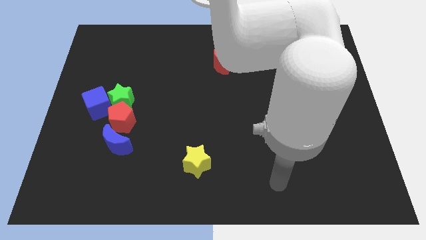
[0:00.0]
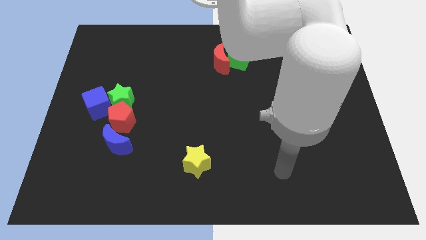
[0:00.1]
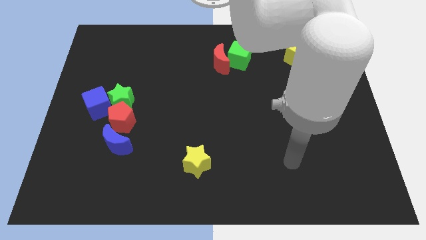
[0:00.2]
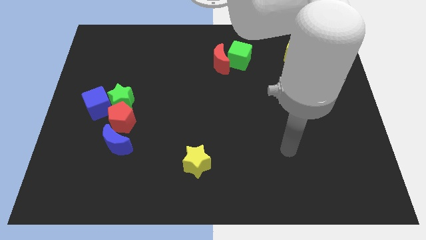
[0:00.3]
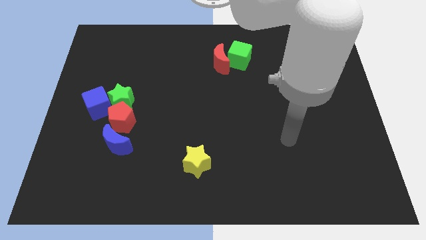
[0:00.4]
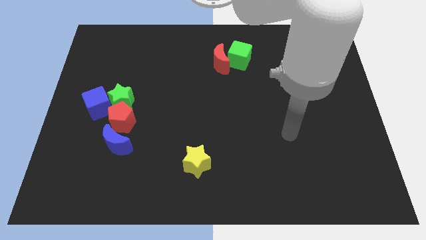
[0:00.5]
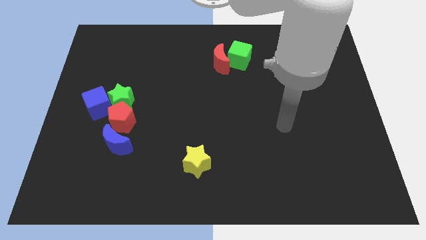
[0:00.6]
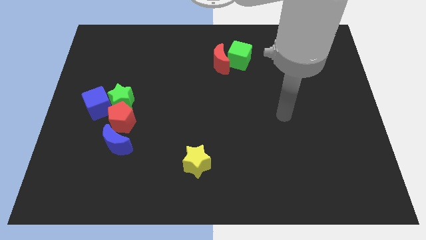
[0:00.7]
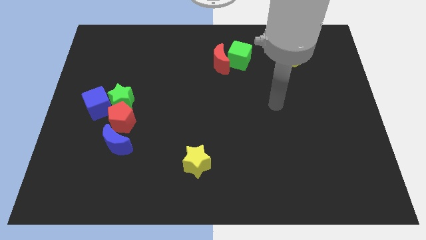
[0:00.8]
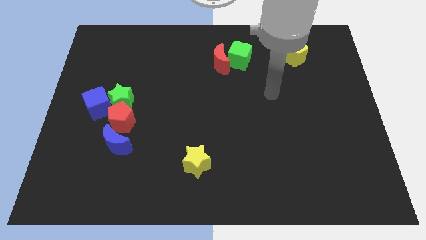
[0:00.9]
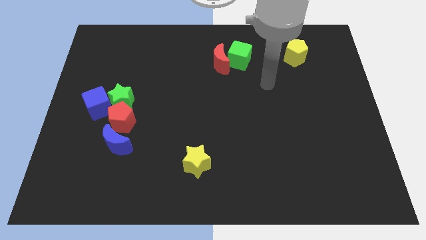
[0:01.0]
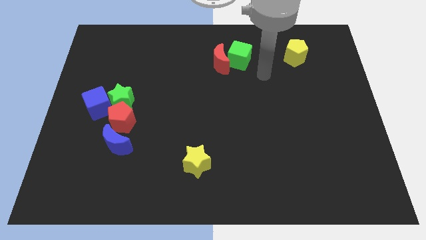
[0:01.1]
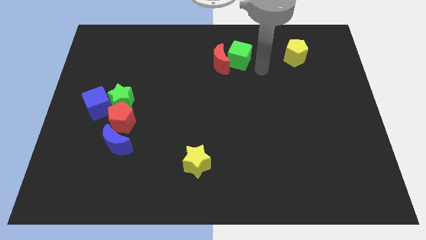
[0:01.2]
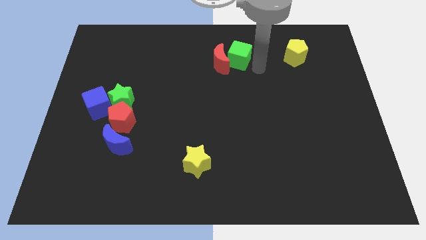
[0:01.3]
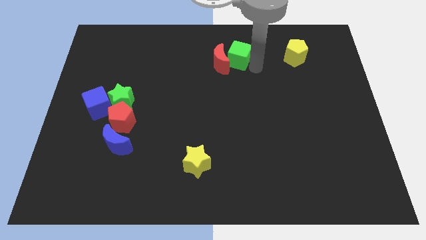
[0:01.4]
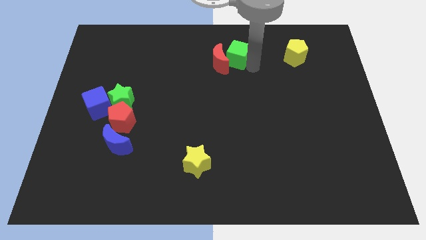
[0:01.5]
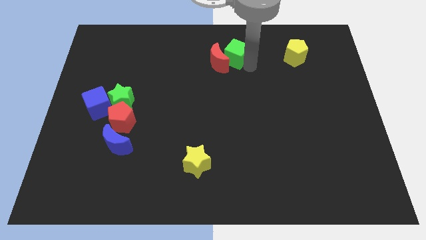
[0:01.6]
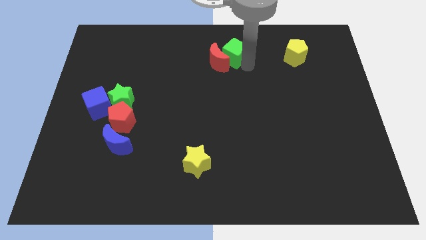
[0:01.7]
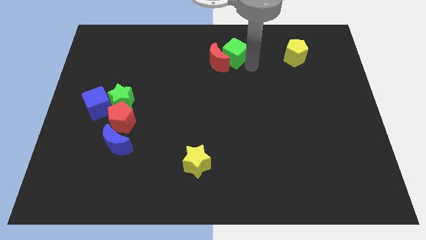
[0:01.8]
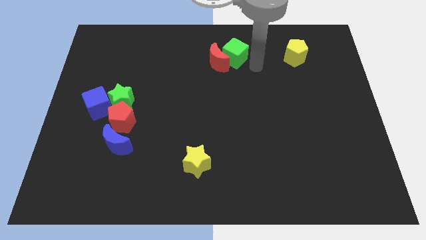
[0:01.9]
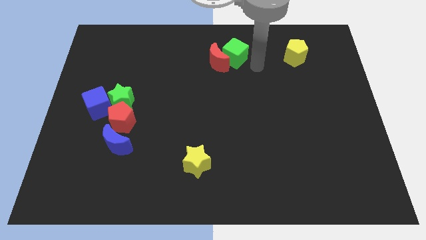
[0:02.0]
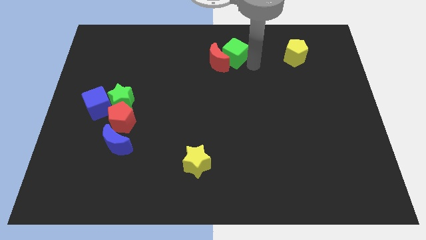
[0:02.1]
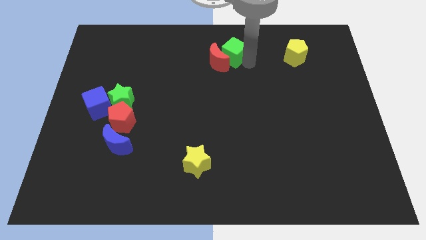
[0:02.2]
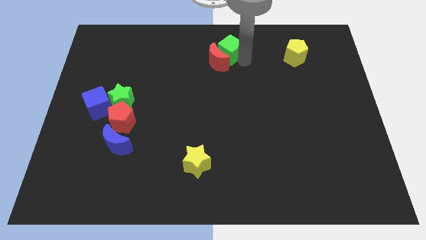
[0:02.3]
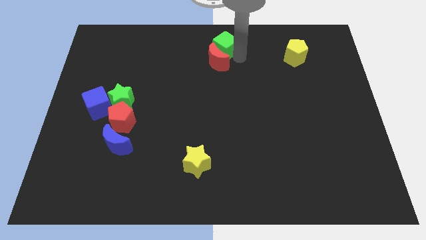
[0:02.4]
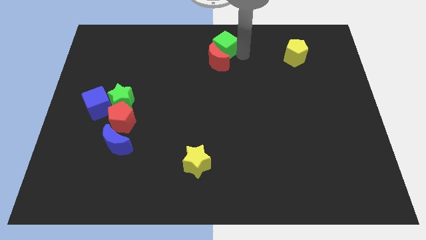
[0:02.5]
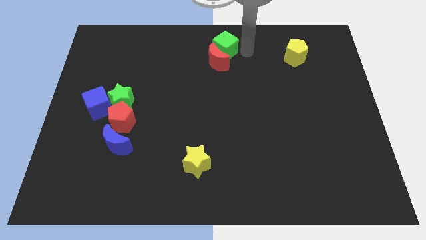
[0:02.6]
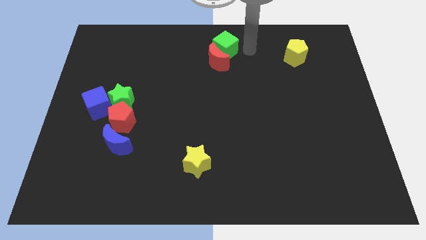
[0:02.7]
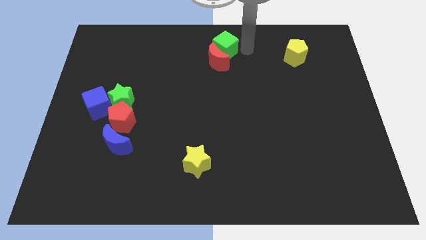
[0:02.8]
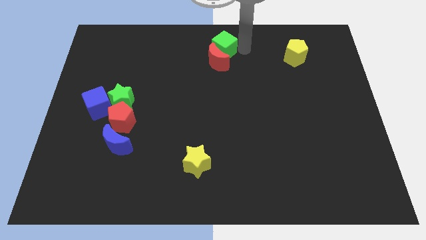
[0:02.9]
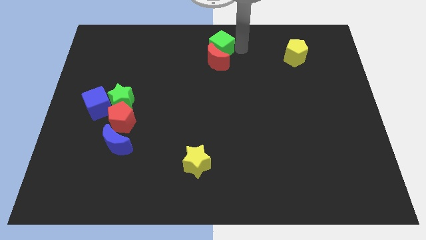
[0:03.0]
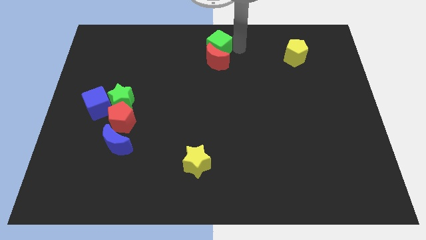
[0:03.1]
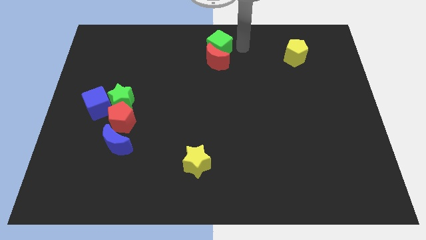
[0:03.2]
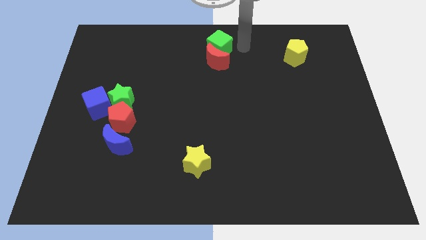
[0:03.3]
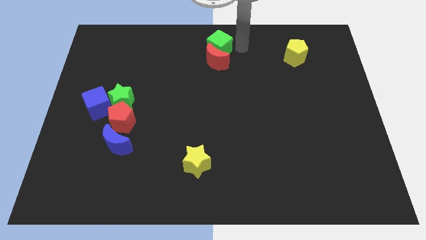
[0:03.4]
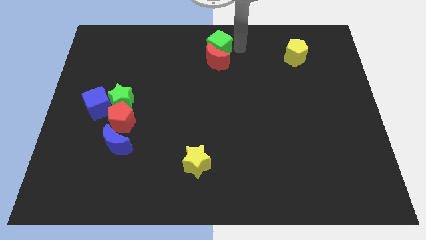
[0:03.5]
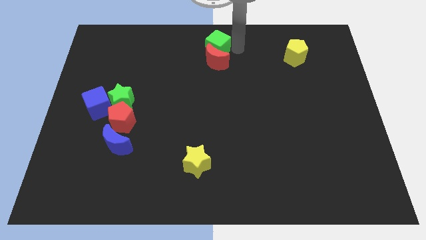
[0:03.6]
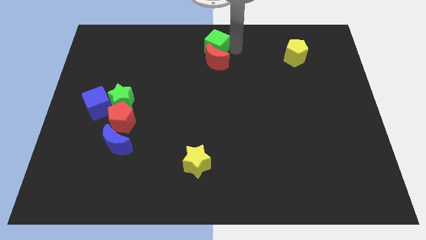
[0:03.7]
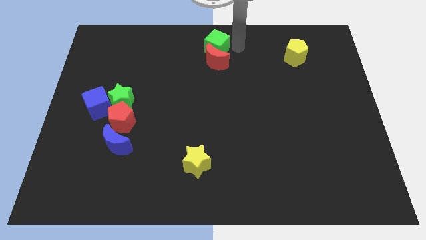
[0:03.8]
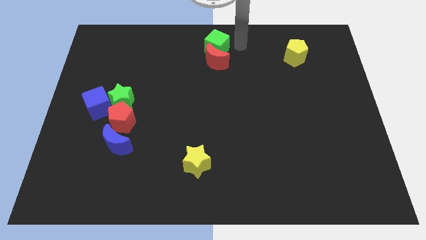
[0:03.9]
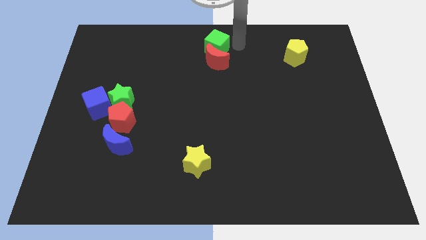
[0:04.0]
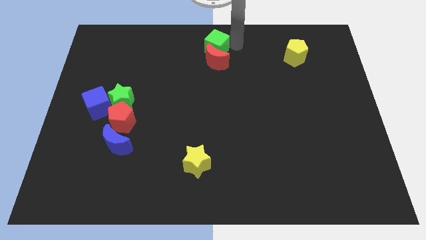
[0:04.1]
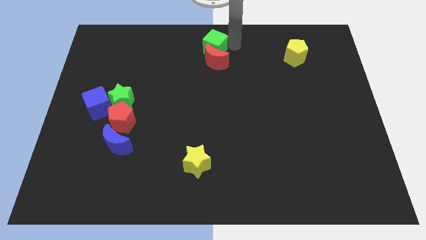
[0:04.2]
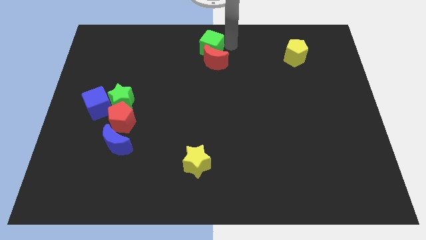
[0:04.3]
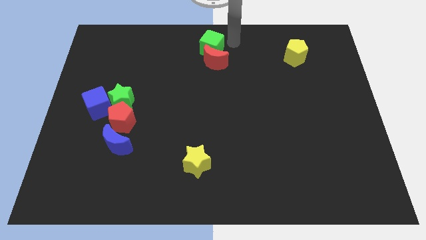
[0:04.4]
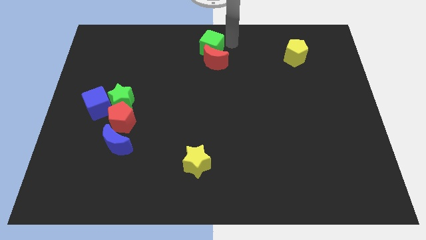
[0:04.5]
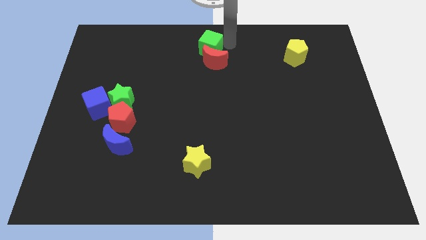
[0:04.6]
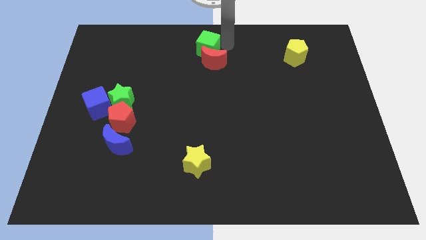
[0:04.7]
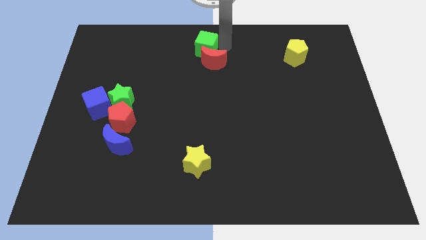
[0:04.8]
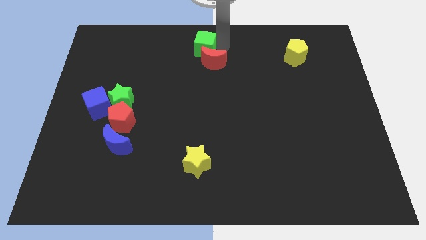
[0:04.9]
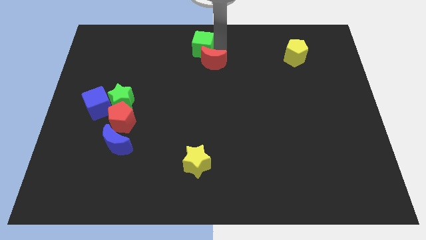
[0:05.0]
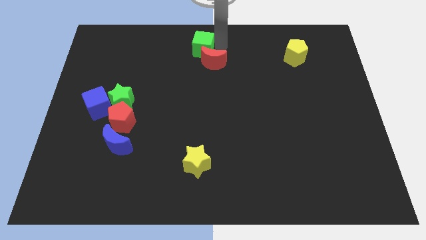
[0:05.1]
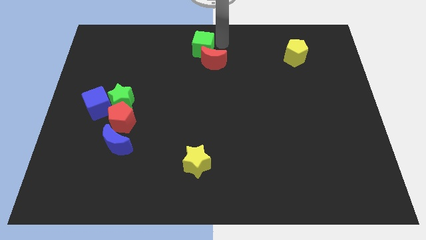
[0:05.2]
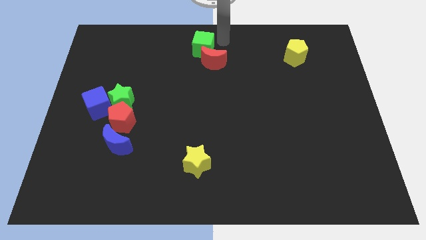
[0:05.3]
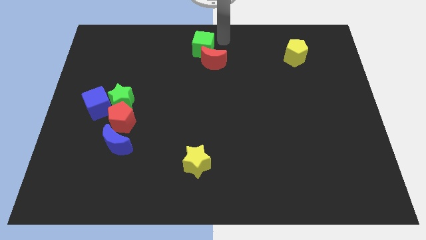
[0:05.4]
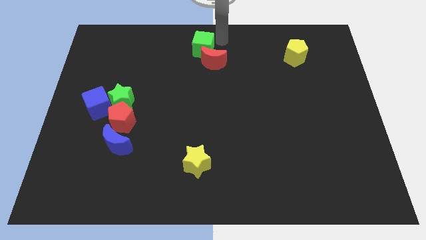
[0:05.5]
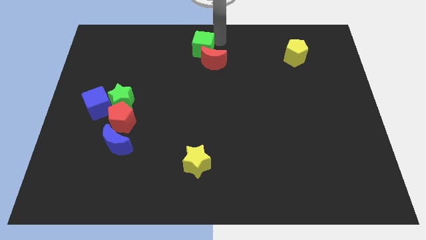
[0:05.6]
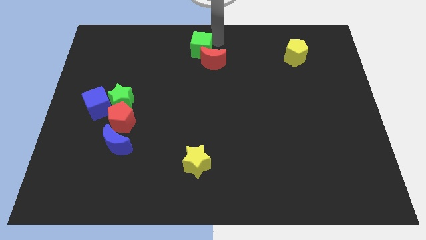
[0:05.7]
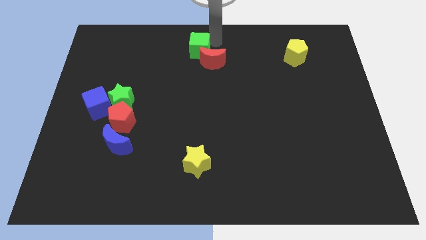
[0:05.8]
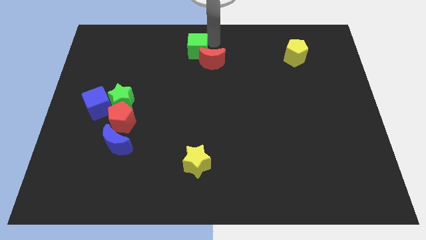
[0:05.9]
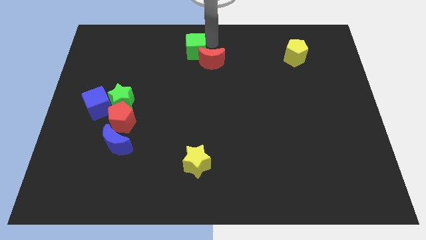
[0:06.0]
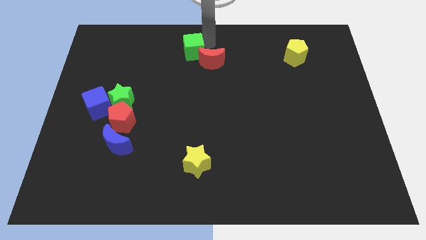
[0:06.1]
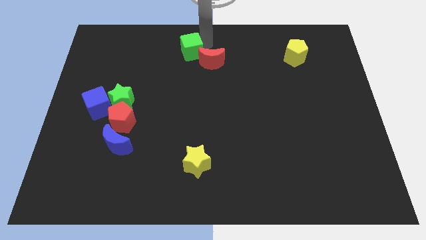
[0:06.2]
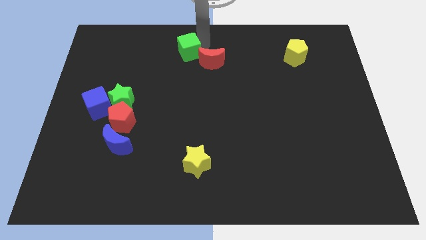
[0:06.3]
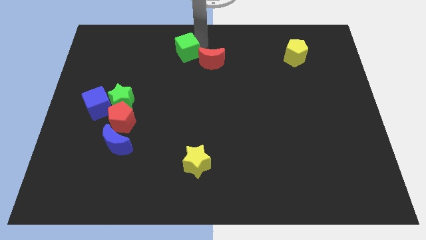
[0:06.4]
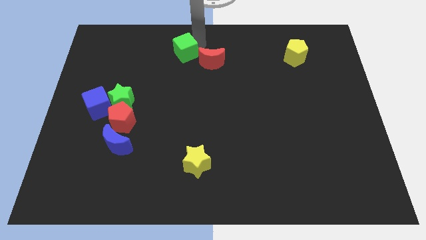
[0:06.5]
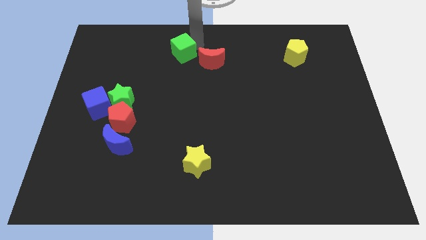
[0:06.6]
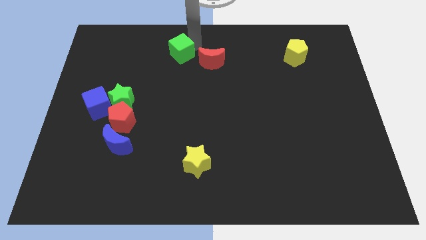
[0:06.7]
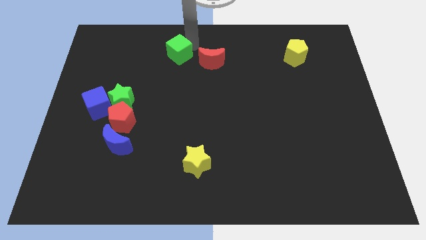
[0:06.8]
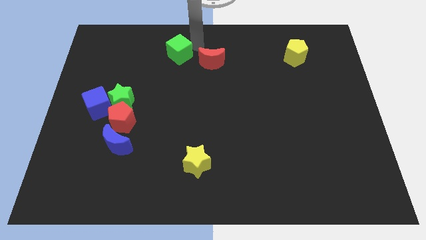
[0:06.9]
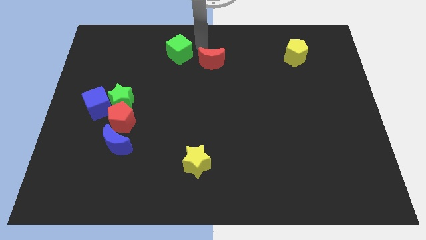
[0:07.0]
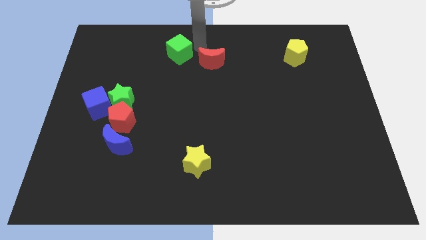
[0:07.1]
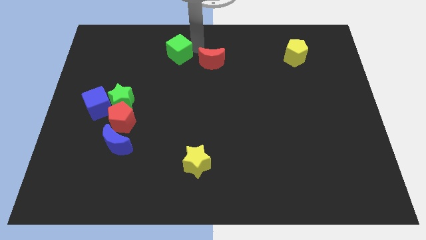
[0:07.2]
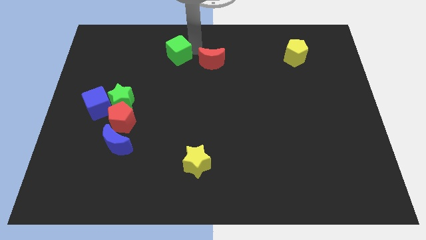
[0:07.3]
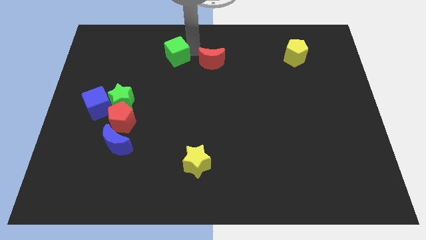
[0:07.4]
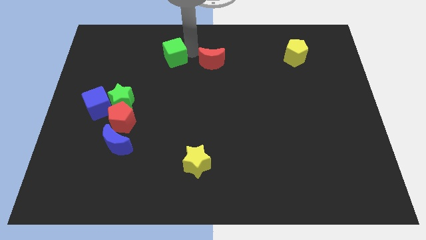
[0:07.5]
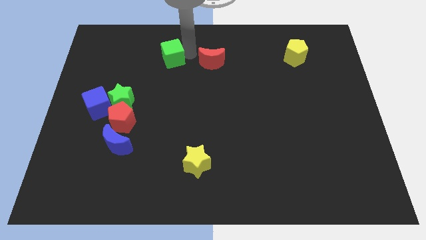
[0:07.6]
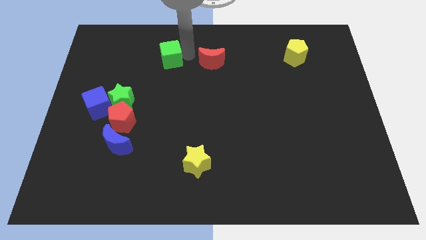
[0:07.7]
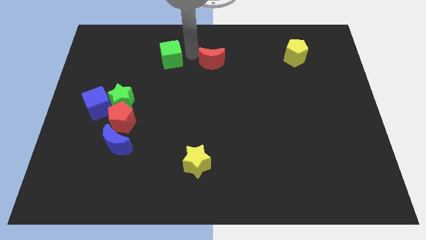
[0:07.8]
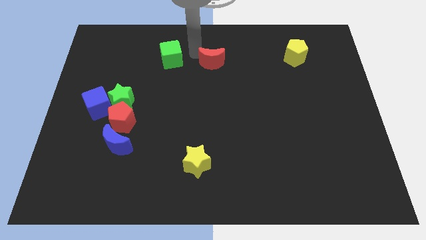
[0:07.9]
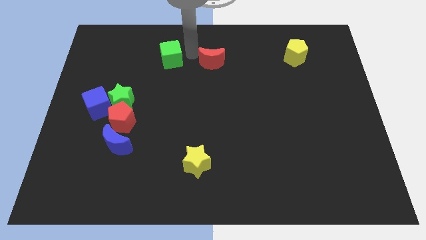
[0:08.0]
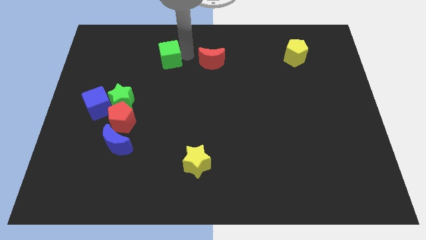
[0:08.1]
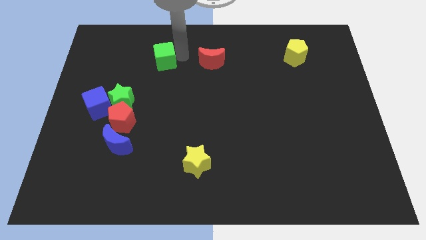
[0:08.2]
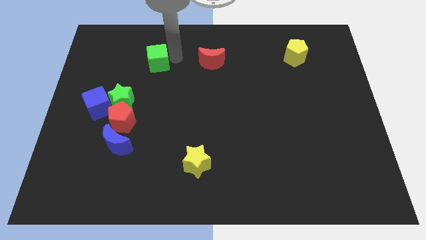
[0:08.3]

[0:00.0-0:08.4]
push the green cube to the left
